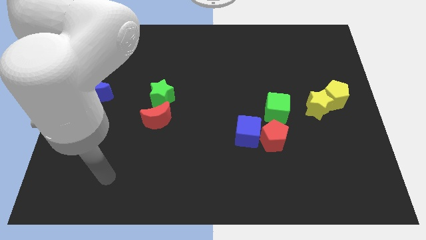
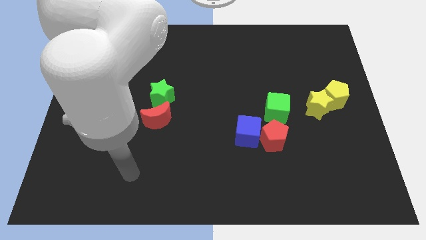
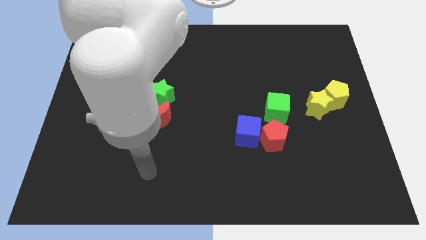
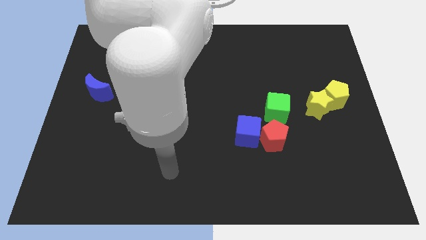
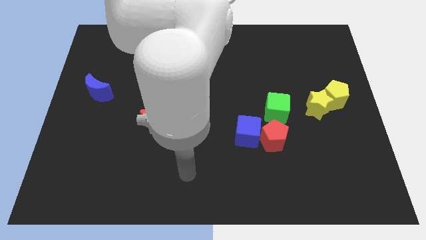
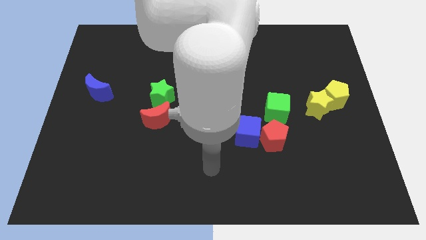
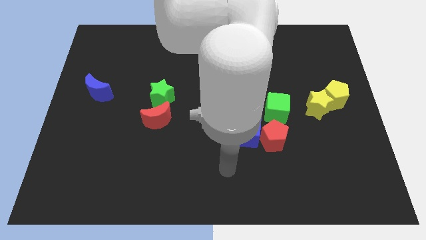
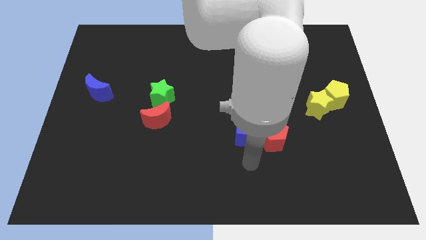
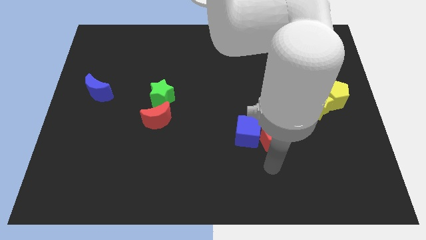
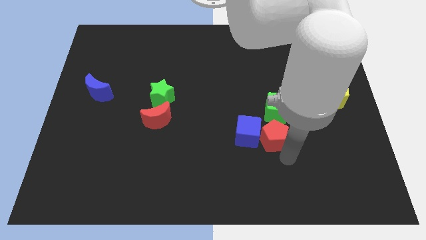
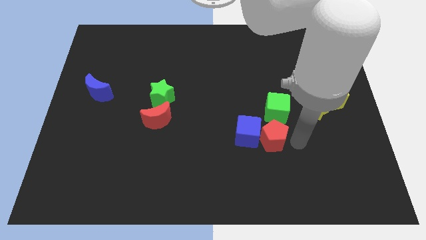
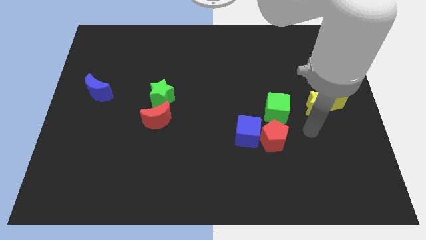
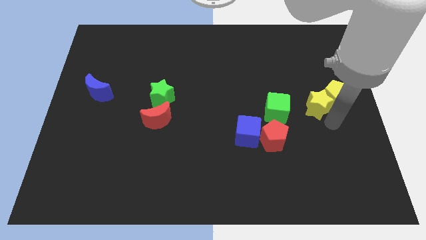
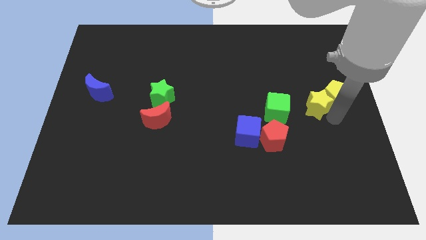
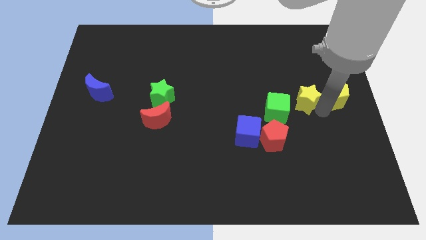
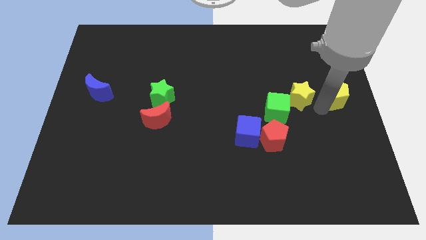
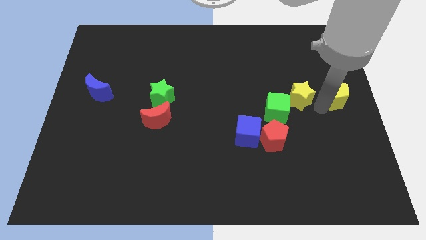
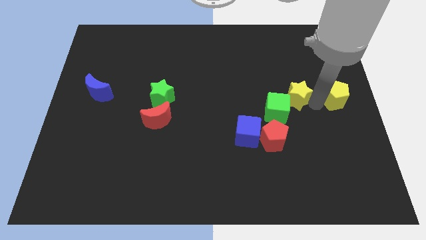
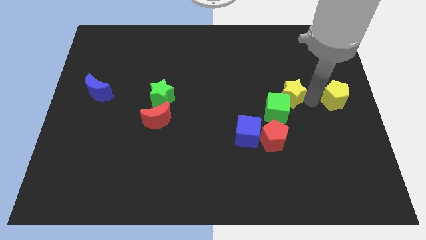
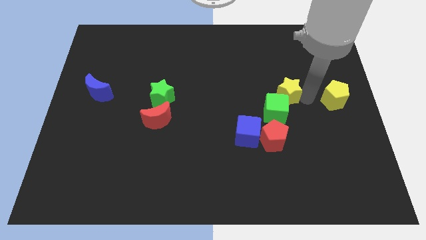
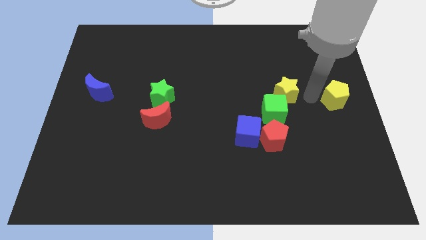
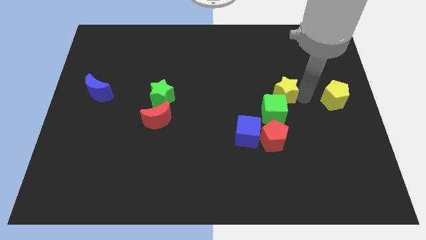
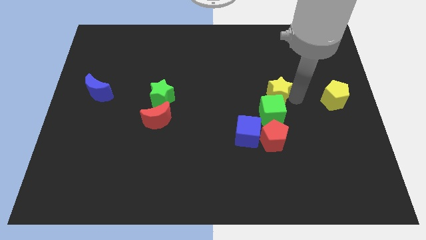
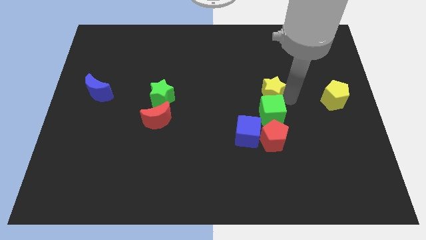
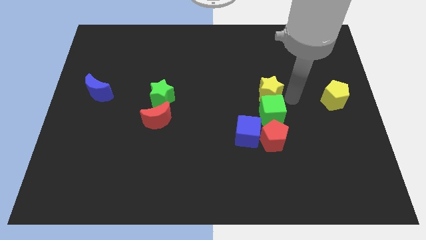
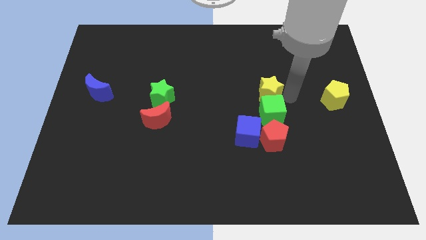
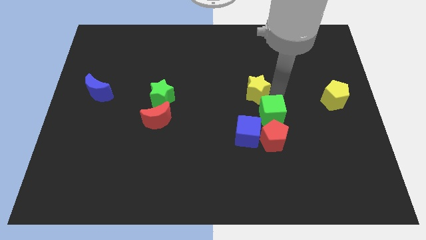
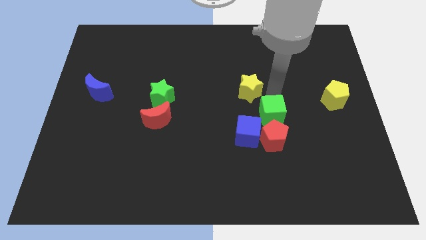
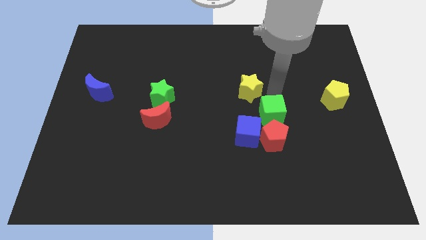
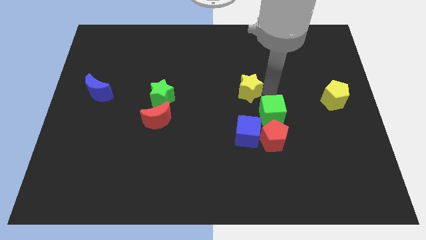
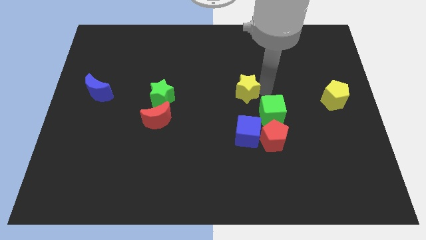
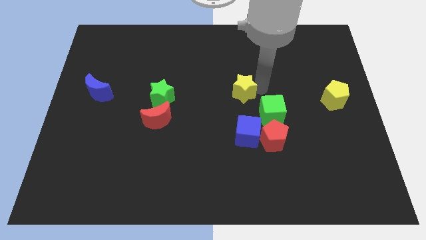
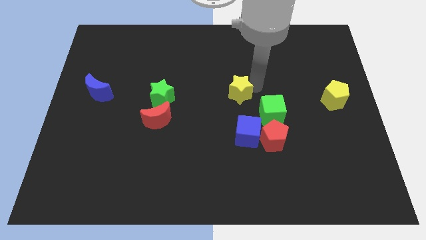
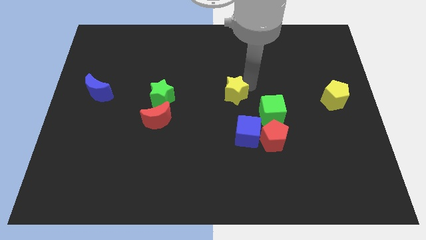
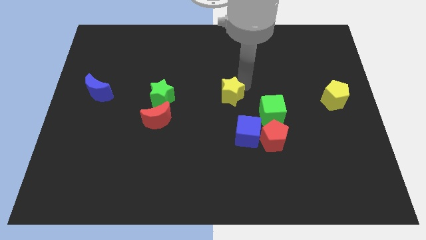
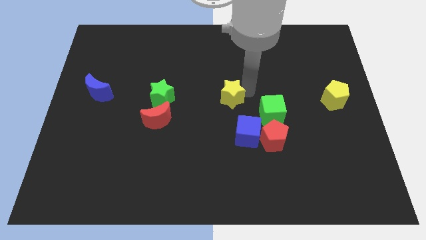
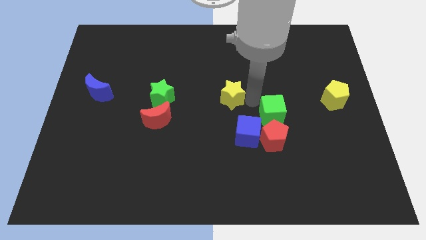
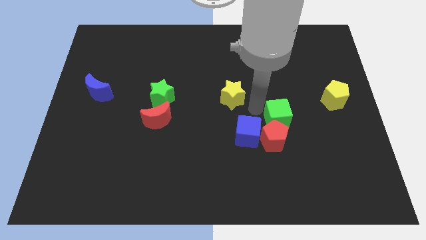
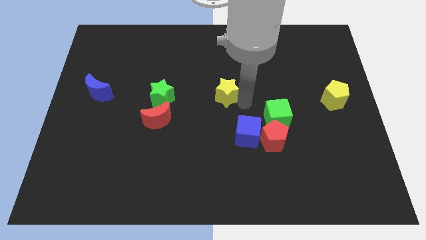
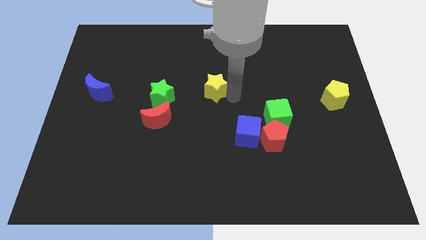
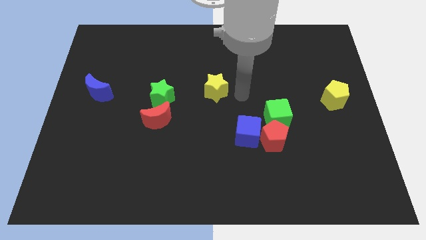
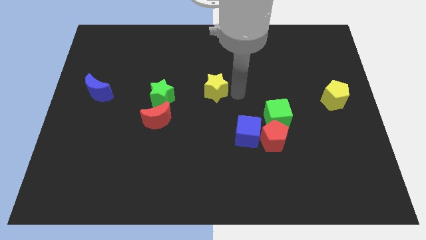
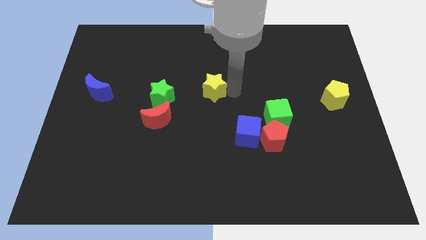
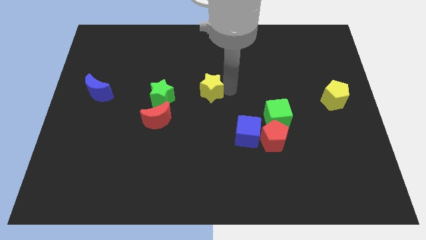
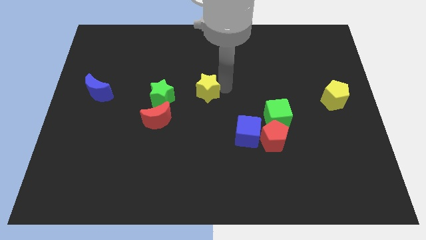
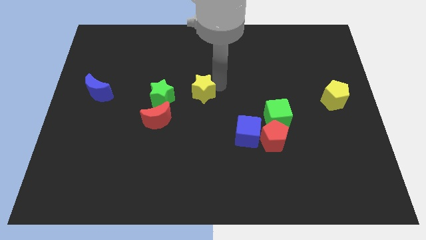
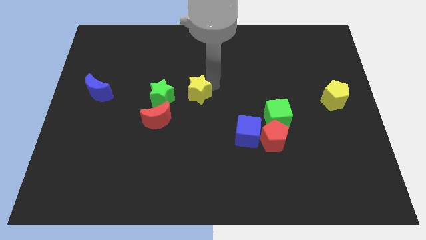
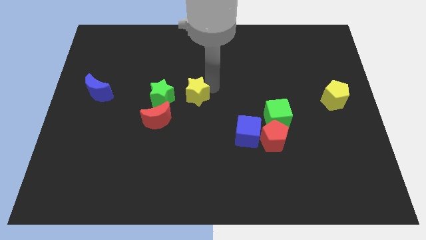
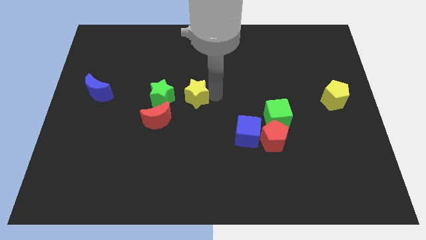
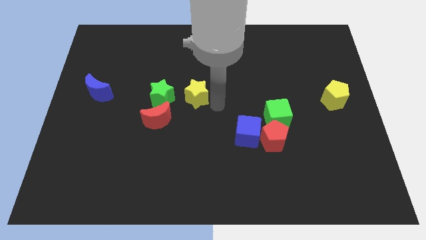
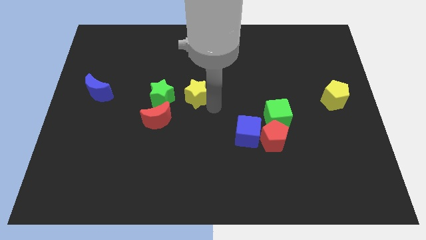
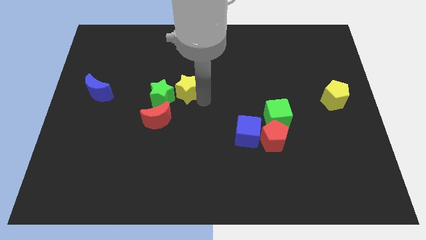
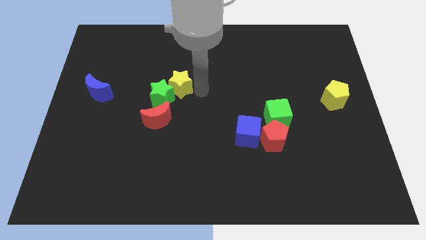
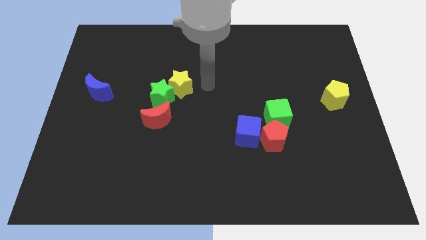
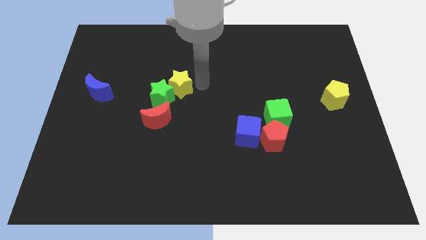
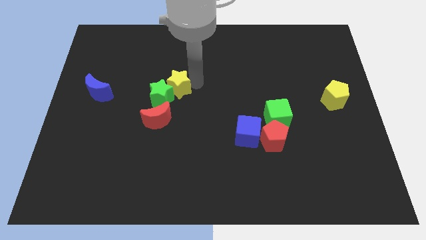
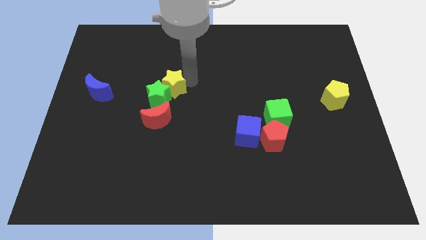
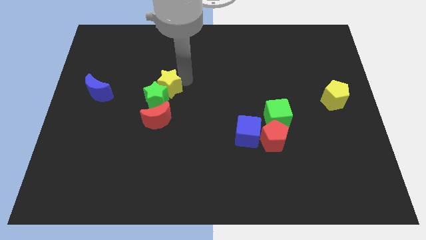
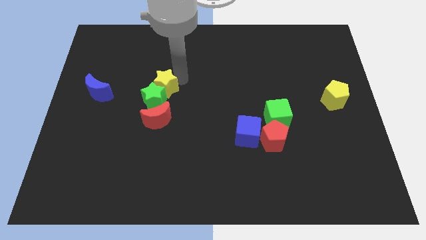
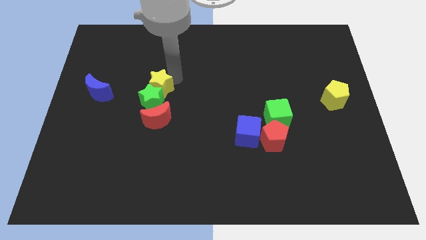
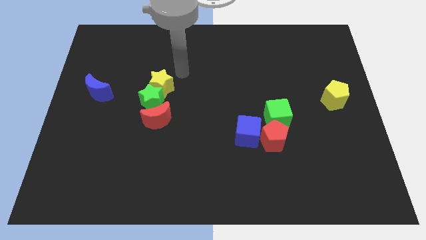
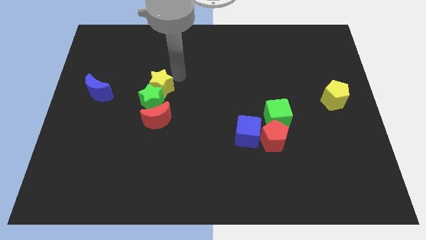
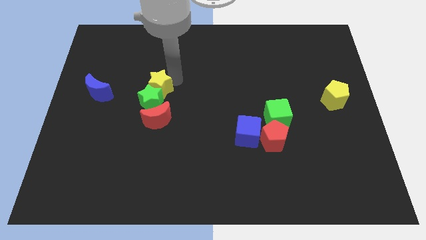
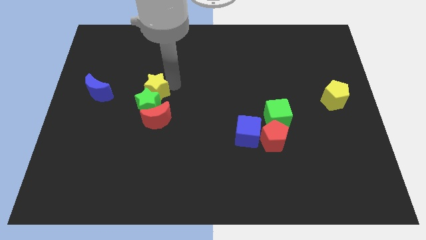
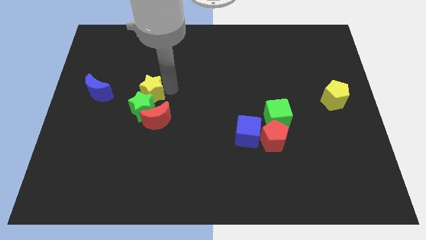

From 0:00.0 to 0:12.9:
push the yellow star to the top left of the red moon
